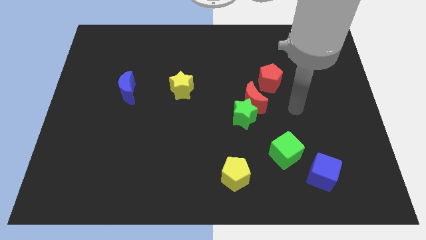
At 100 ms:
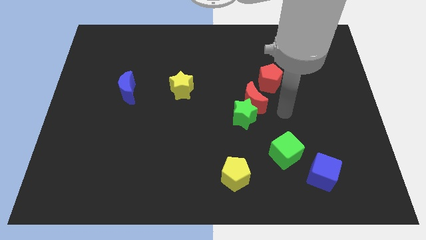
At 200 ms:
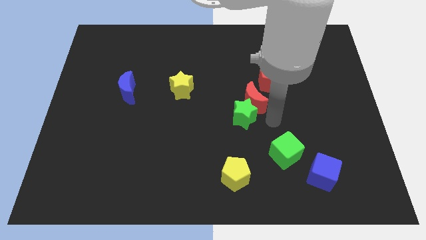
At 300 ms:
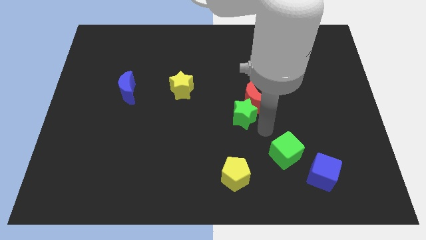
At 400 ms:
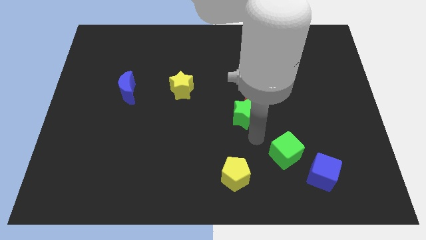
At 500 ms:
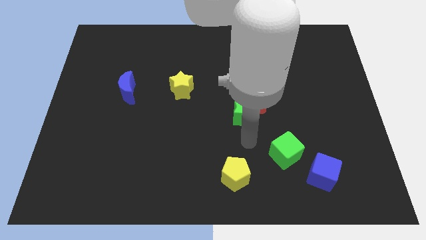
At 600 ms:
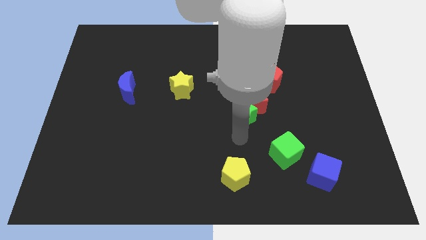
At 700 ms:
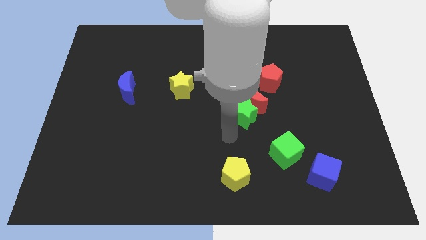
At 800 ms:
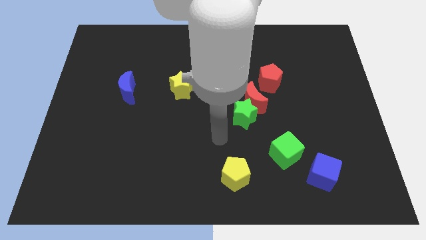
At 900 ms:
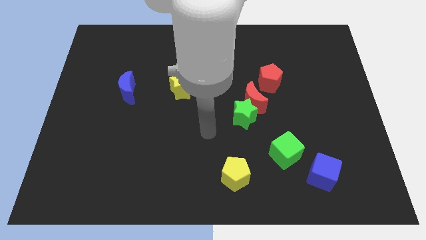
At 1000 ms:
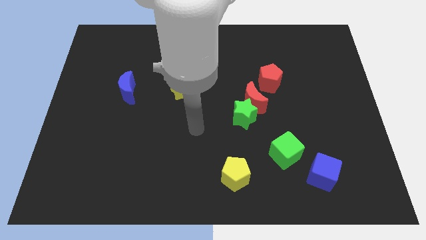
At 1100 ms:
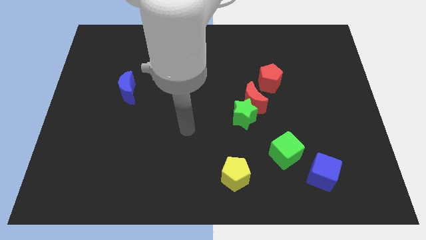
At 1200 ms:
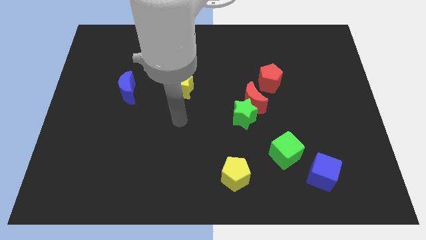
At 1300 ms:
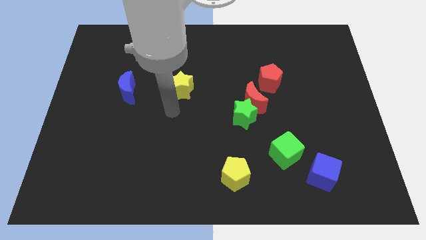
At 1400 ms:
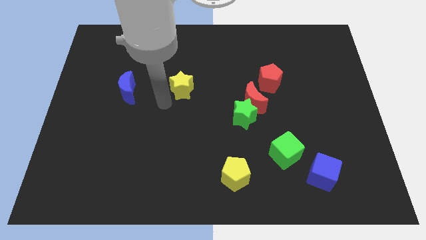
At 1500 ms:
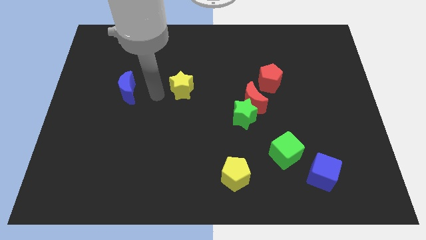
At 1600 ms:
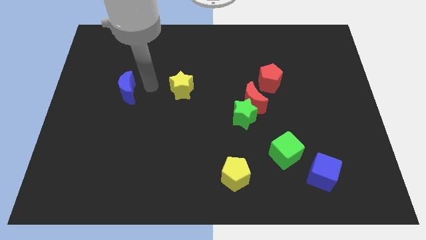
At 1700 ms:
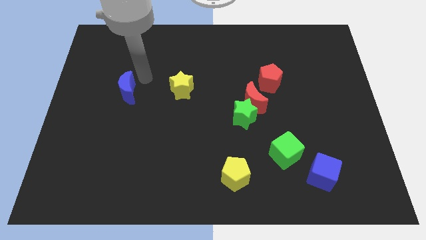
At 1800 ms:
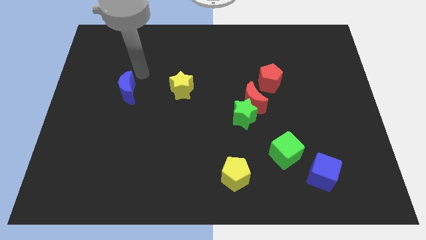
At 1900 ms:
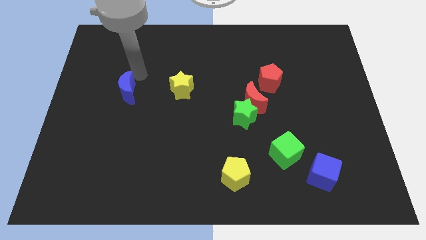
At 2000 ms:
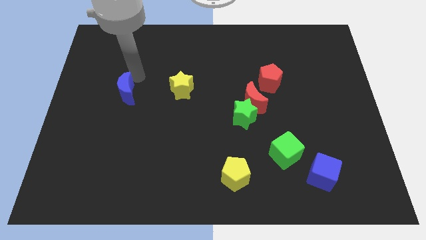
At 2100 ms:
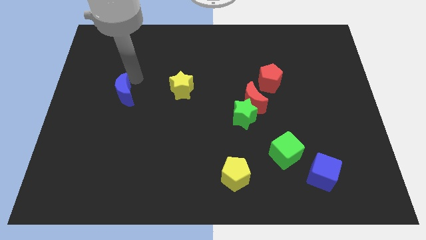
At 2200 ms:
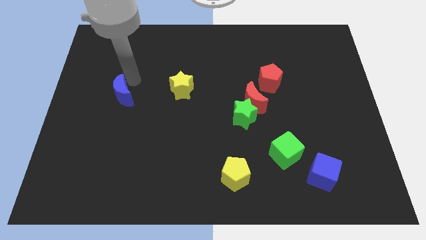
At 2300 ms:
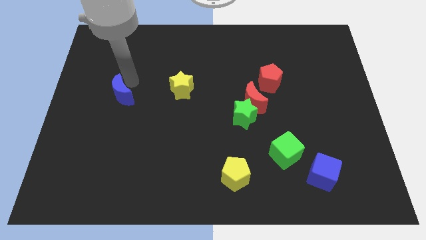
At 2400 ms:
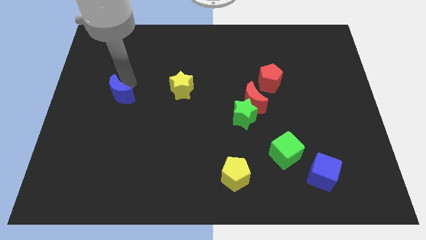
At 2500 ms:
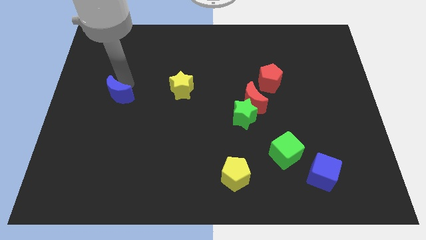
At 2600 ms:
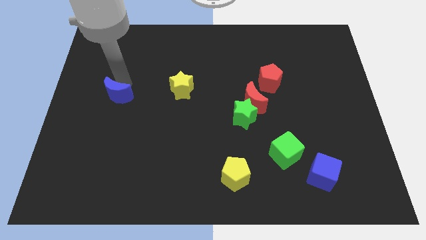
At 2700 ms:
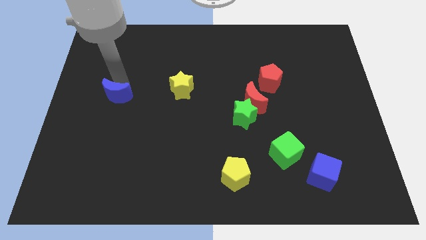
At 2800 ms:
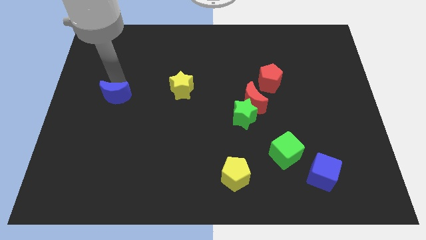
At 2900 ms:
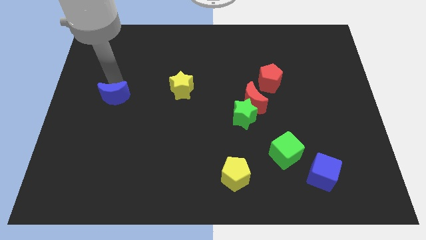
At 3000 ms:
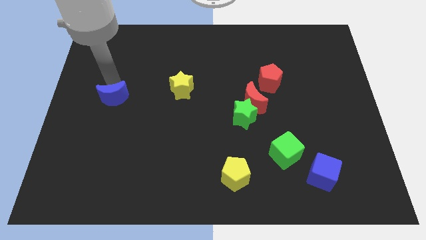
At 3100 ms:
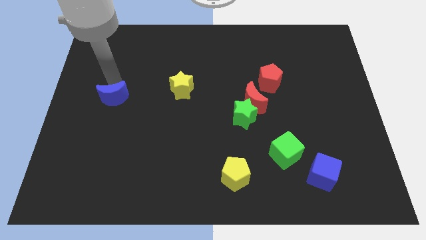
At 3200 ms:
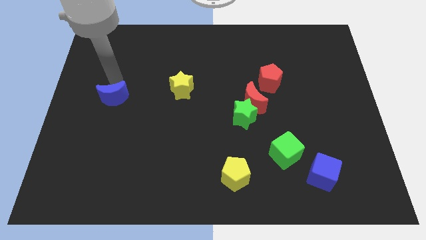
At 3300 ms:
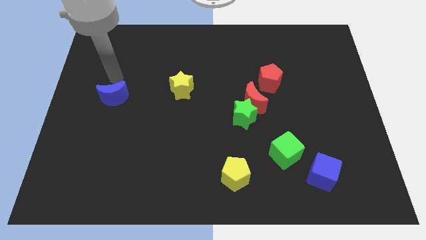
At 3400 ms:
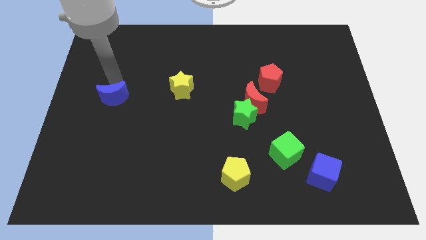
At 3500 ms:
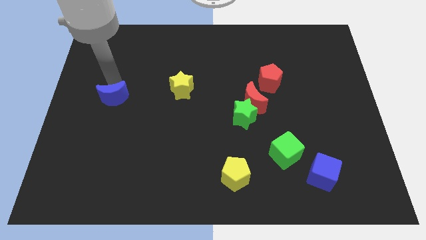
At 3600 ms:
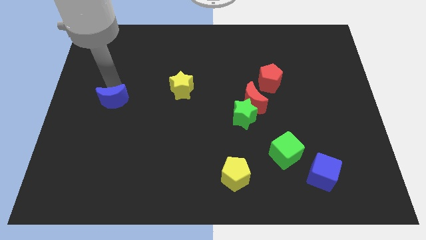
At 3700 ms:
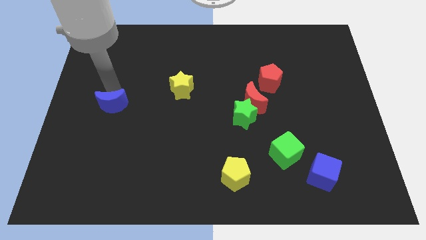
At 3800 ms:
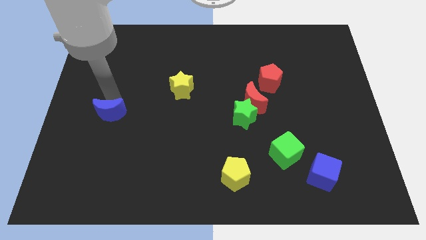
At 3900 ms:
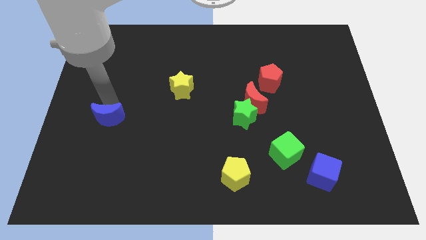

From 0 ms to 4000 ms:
slightly slide the blue moon downwards

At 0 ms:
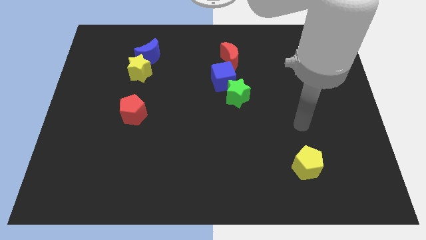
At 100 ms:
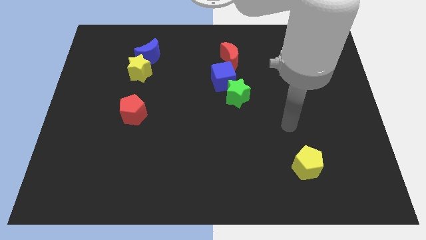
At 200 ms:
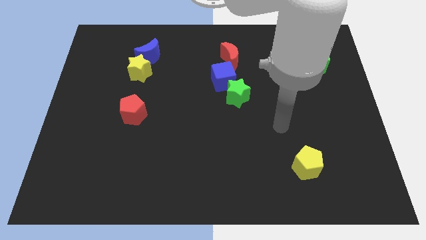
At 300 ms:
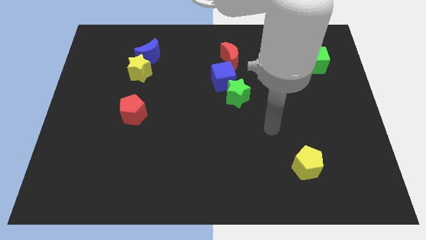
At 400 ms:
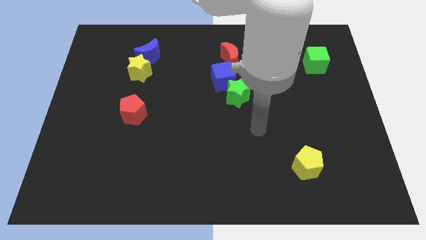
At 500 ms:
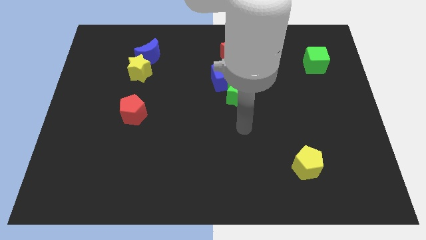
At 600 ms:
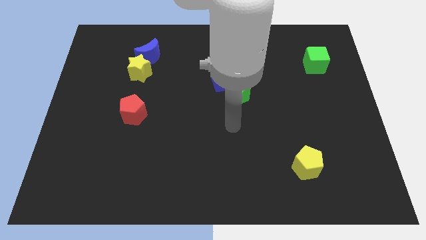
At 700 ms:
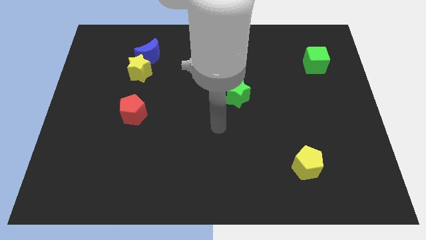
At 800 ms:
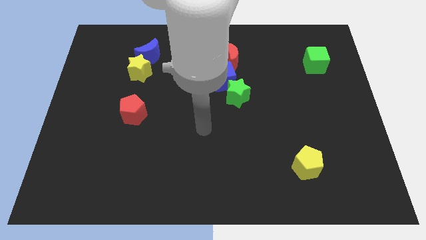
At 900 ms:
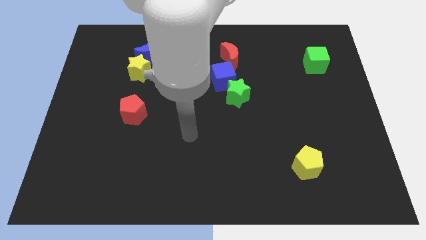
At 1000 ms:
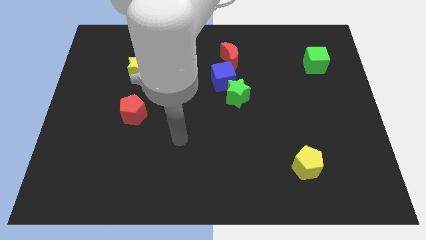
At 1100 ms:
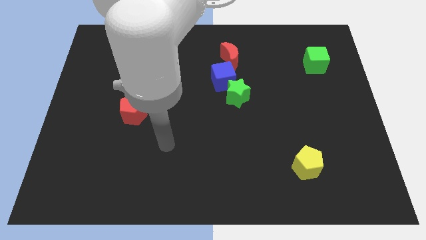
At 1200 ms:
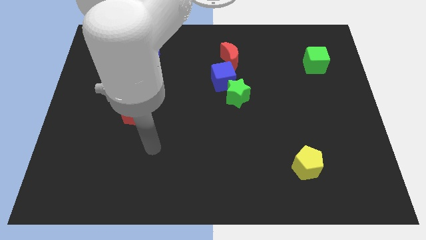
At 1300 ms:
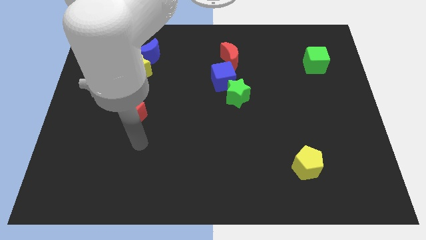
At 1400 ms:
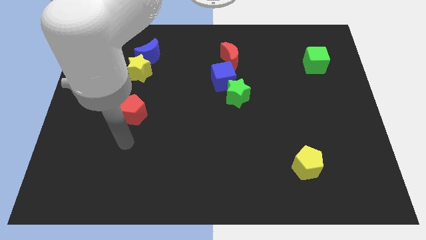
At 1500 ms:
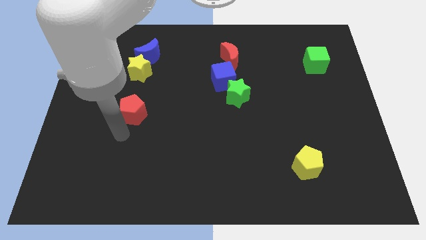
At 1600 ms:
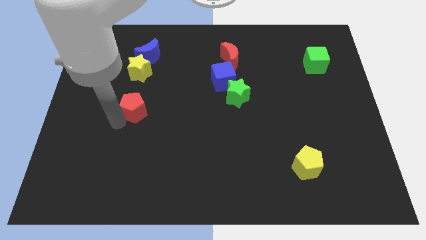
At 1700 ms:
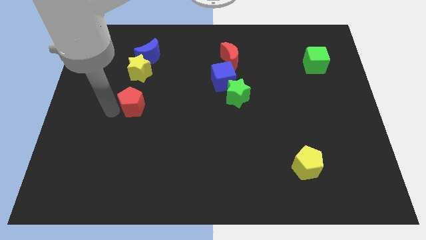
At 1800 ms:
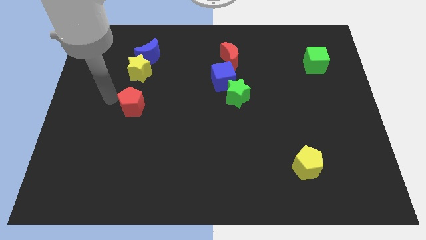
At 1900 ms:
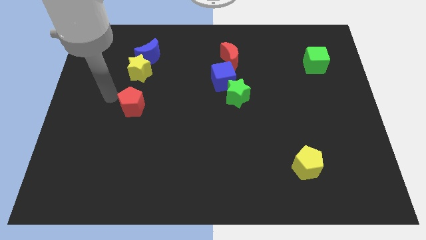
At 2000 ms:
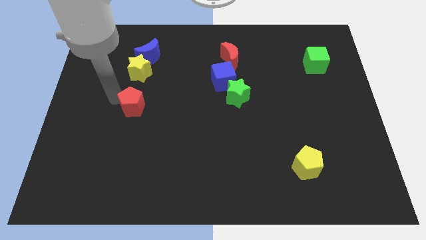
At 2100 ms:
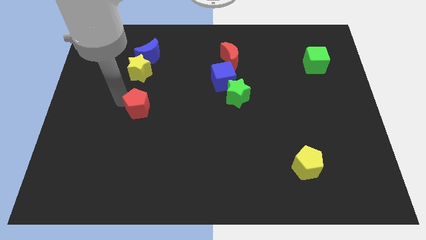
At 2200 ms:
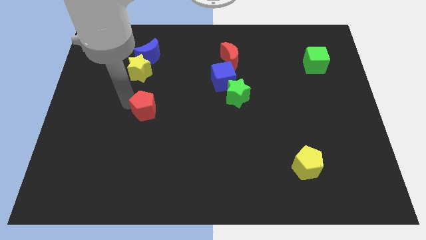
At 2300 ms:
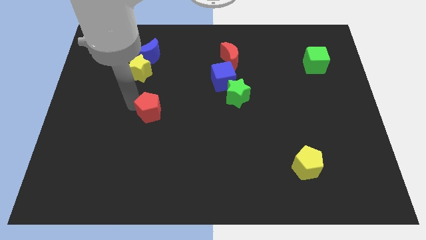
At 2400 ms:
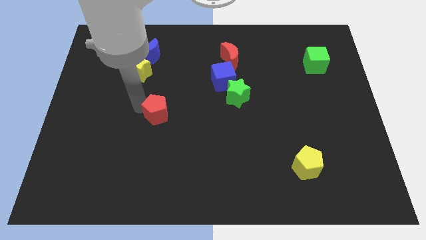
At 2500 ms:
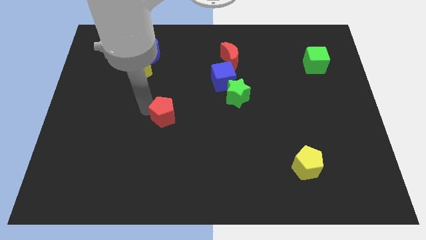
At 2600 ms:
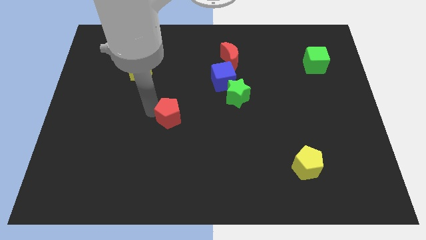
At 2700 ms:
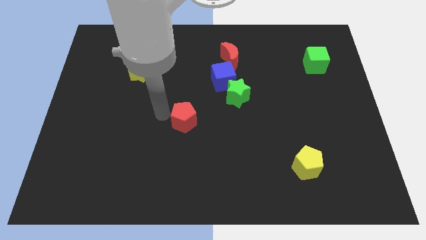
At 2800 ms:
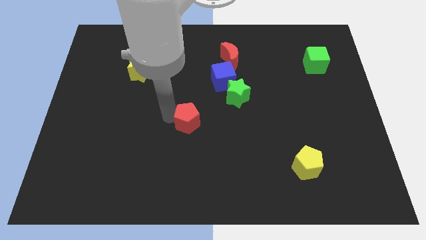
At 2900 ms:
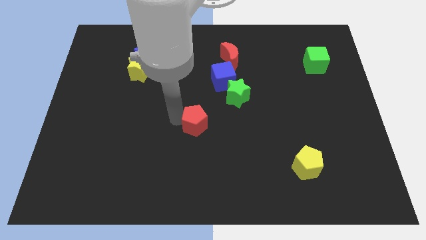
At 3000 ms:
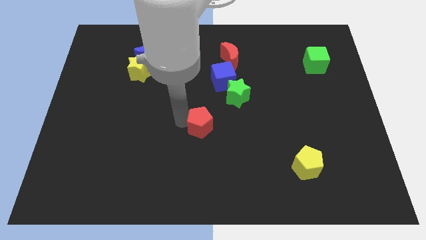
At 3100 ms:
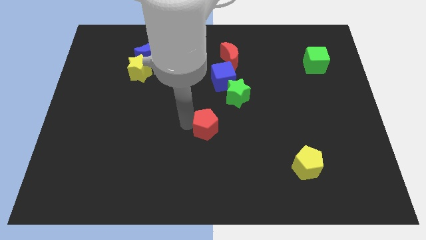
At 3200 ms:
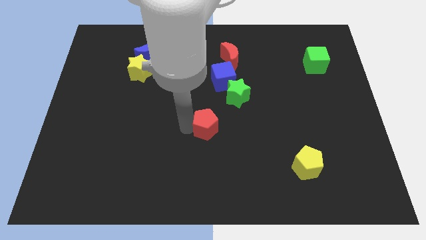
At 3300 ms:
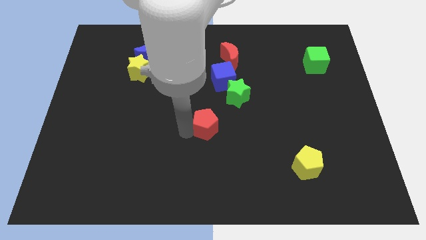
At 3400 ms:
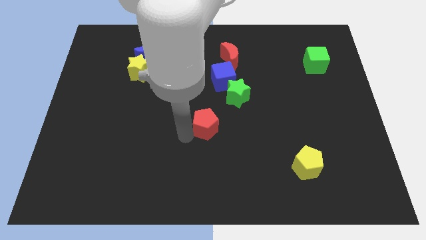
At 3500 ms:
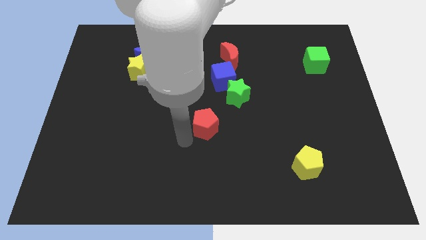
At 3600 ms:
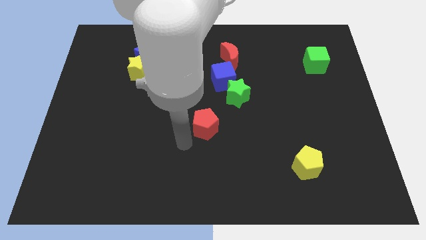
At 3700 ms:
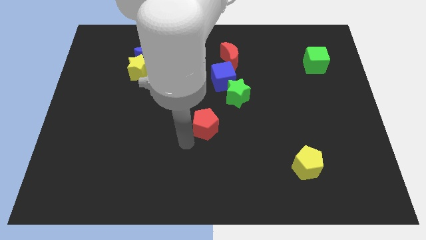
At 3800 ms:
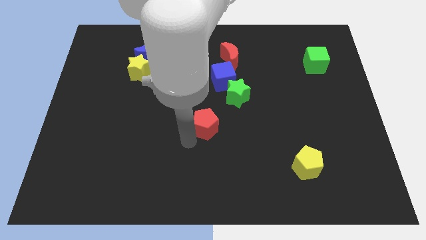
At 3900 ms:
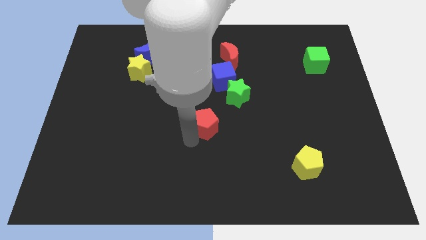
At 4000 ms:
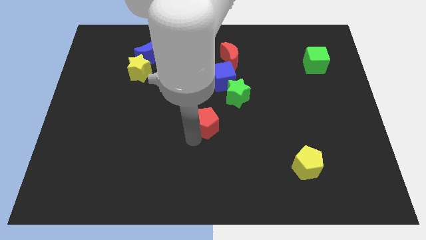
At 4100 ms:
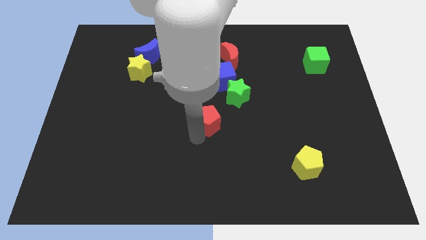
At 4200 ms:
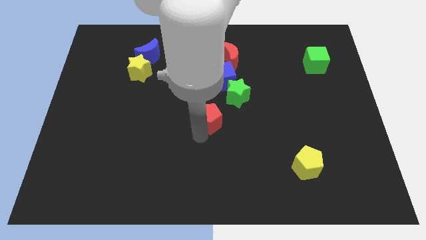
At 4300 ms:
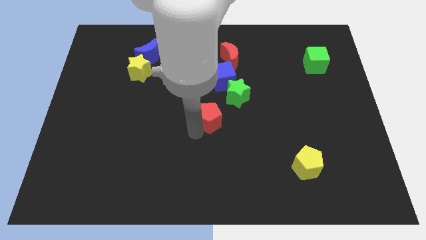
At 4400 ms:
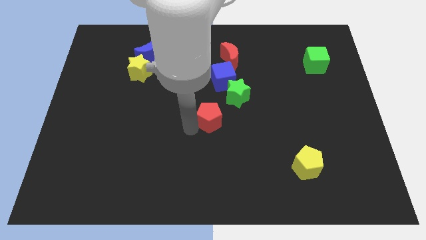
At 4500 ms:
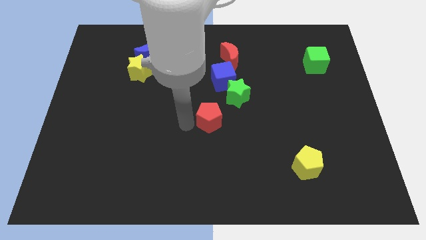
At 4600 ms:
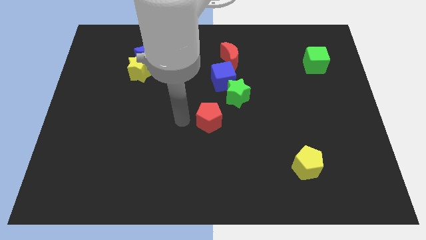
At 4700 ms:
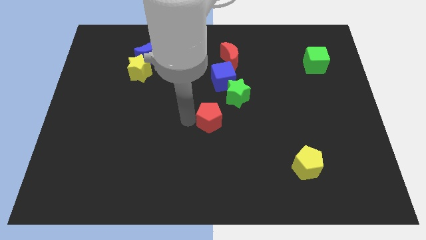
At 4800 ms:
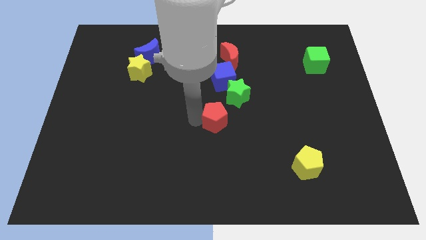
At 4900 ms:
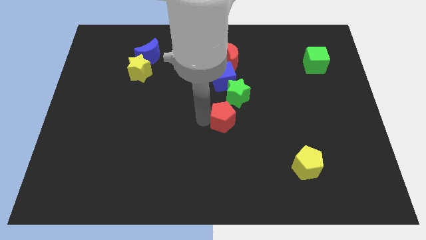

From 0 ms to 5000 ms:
slide the red pentagon to the right
